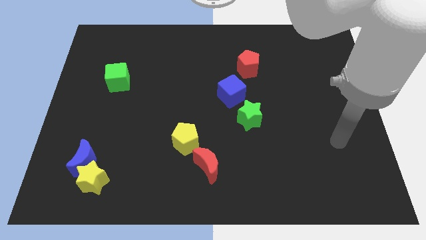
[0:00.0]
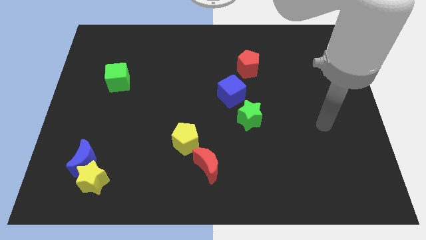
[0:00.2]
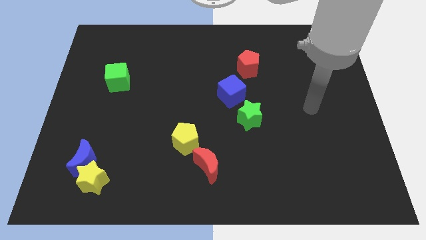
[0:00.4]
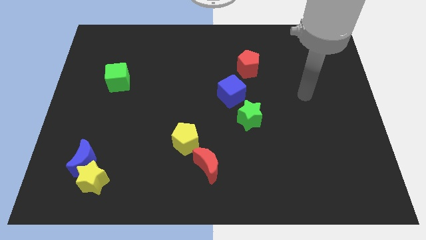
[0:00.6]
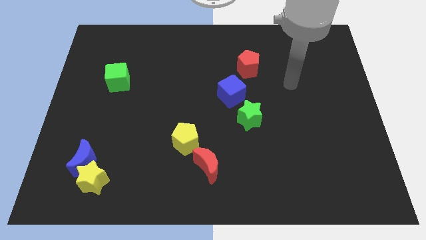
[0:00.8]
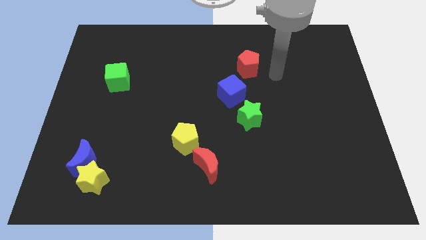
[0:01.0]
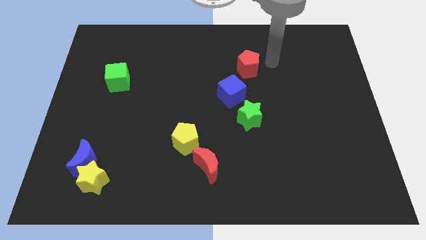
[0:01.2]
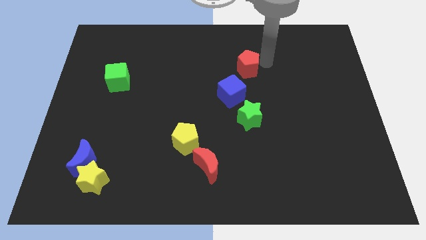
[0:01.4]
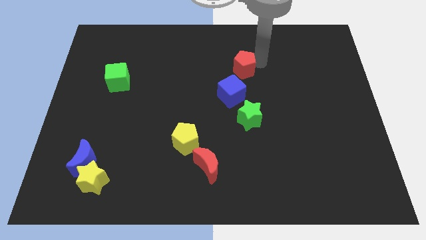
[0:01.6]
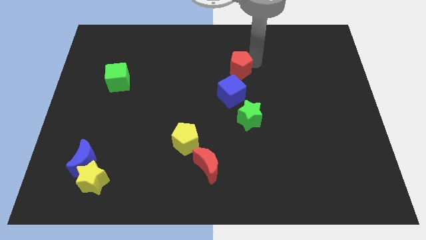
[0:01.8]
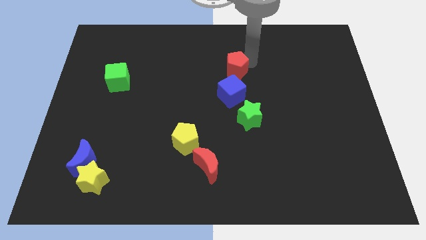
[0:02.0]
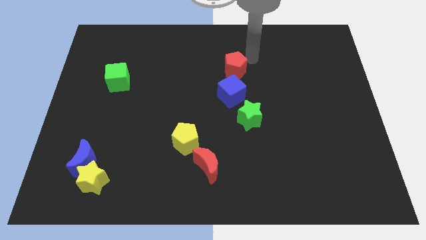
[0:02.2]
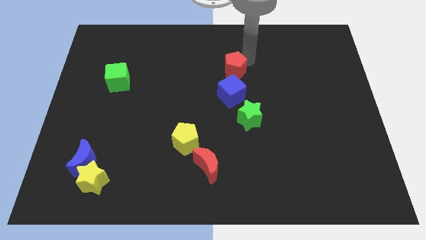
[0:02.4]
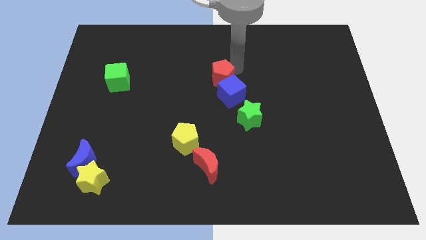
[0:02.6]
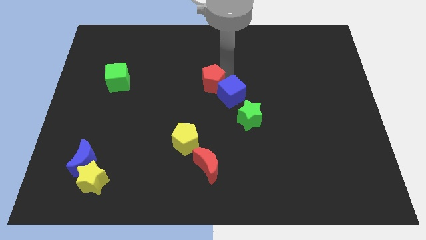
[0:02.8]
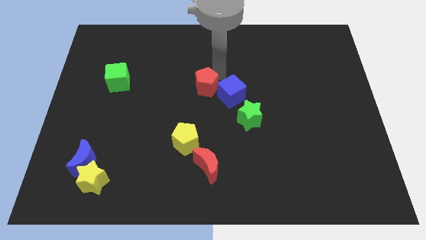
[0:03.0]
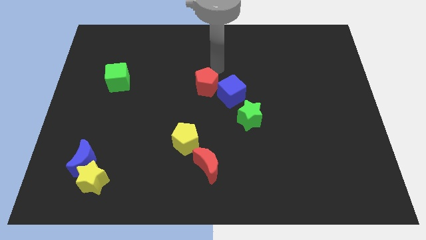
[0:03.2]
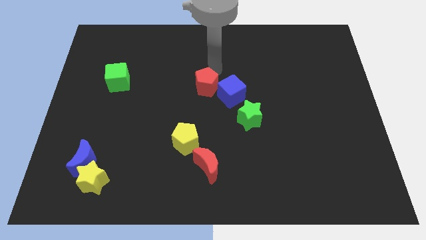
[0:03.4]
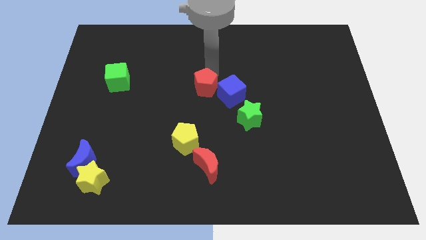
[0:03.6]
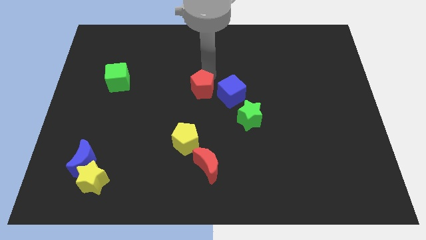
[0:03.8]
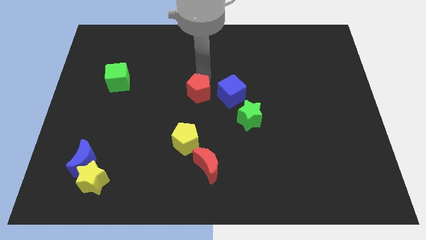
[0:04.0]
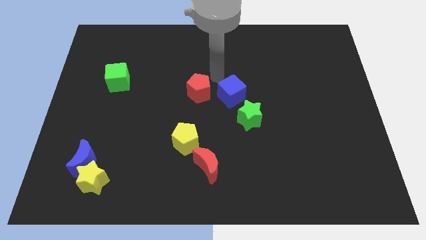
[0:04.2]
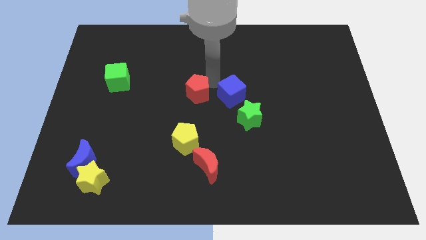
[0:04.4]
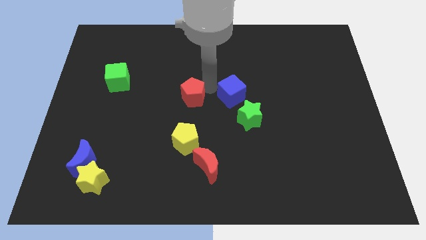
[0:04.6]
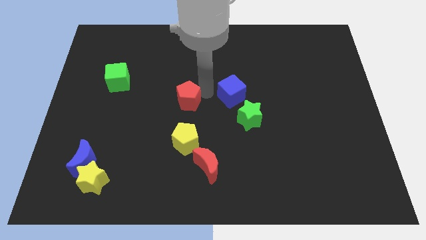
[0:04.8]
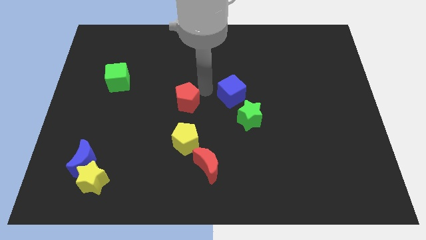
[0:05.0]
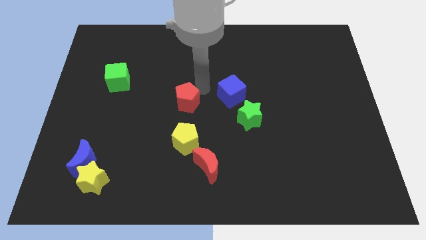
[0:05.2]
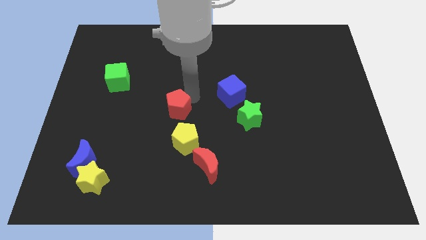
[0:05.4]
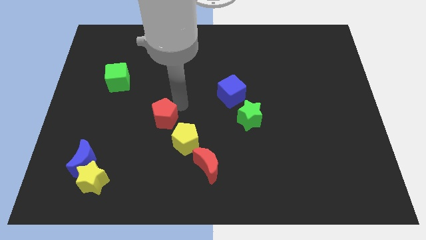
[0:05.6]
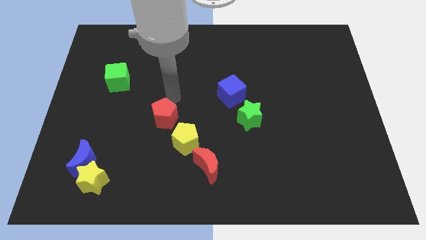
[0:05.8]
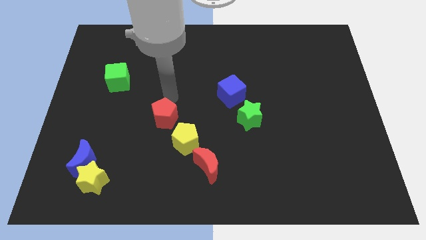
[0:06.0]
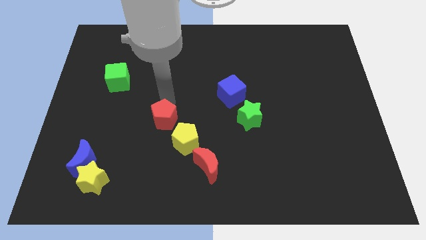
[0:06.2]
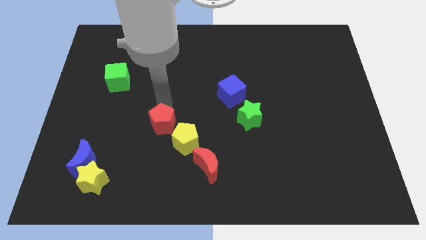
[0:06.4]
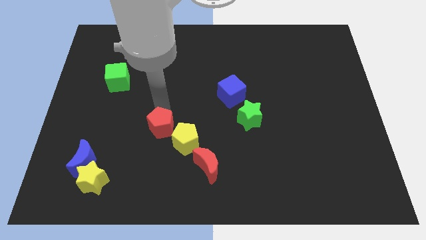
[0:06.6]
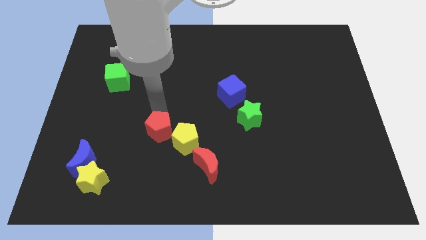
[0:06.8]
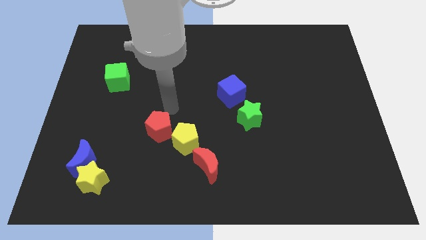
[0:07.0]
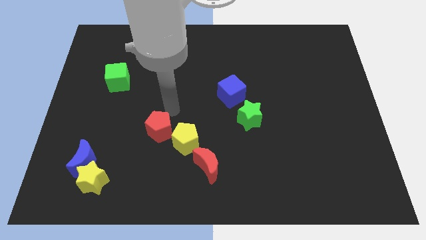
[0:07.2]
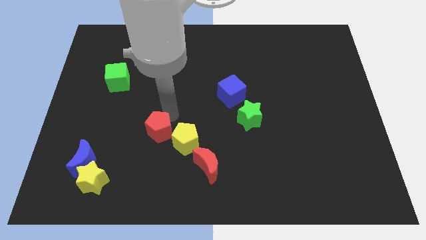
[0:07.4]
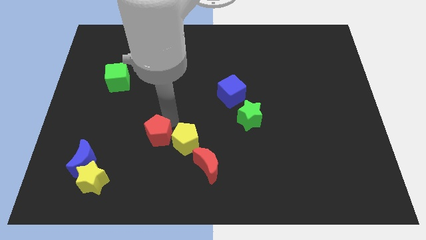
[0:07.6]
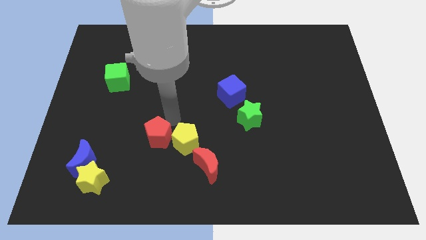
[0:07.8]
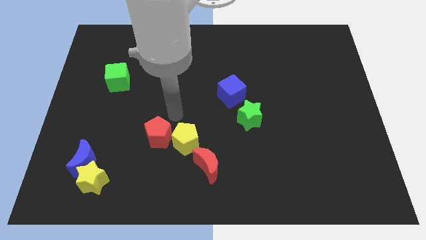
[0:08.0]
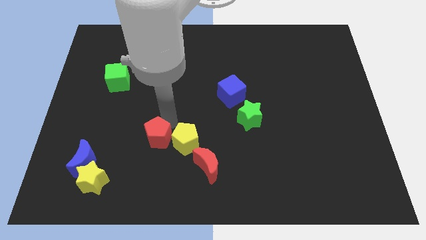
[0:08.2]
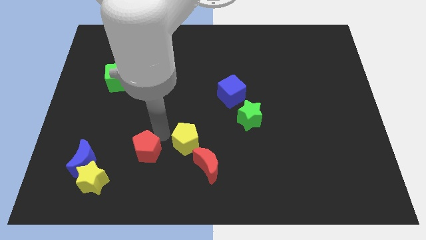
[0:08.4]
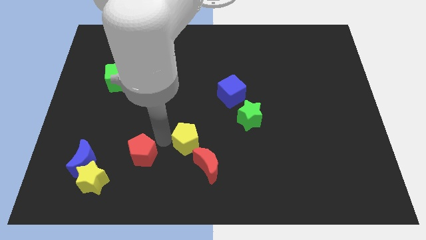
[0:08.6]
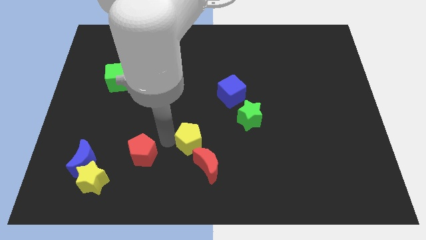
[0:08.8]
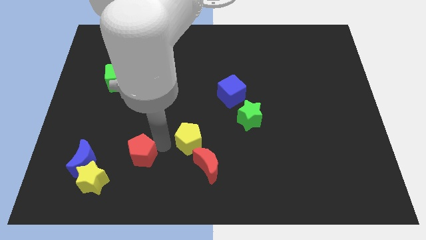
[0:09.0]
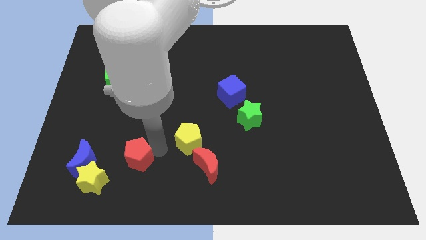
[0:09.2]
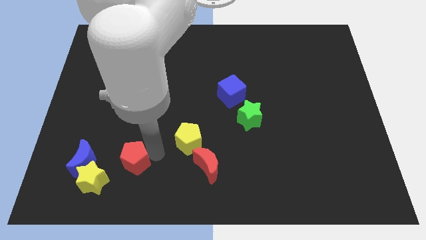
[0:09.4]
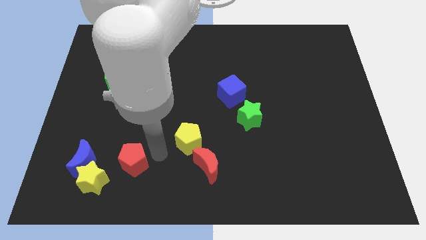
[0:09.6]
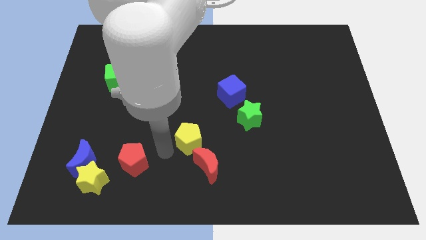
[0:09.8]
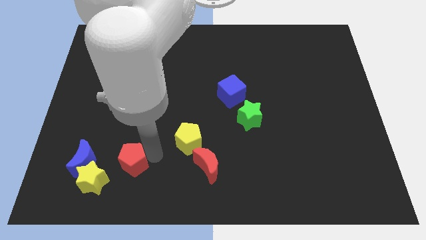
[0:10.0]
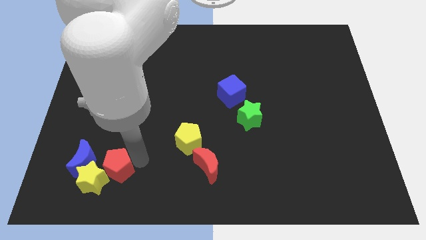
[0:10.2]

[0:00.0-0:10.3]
push the red pentagon close to the yellow star

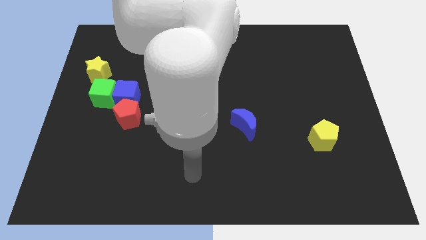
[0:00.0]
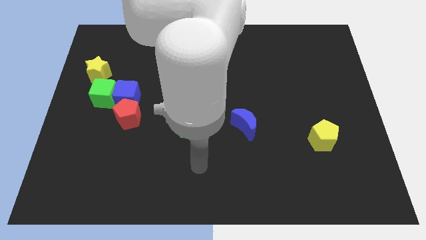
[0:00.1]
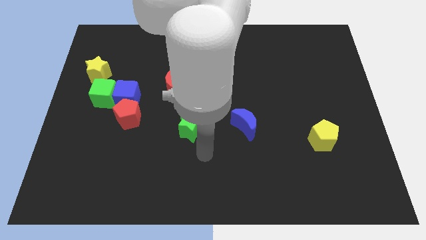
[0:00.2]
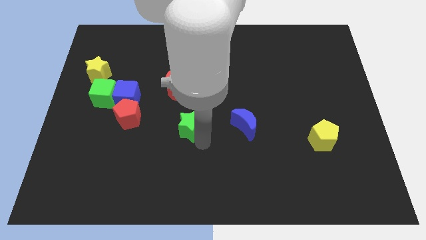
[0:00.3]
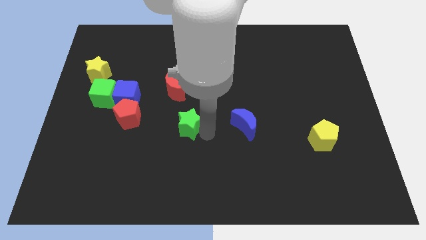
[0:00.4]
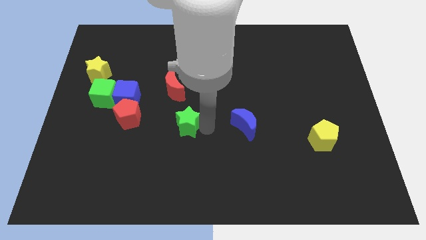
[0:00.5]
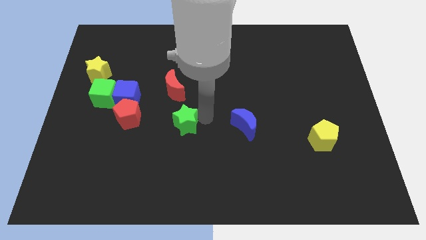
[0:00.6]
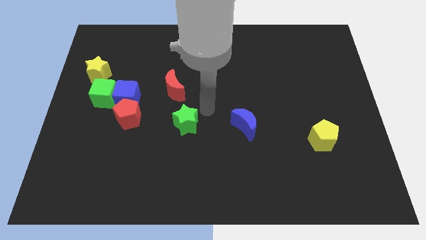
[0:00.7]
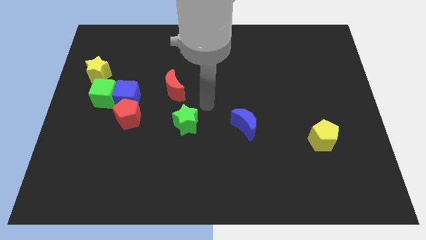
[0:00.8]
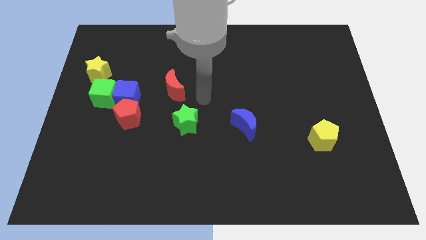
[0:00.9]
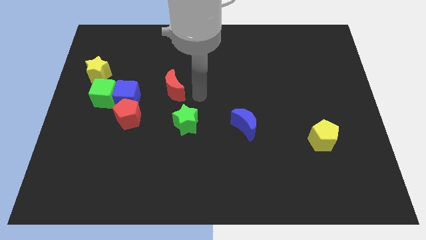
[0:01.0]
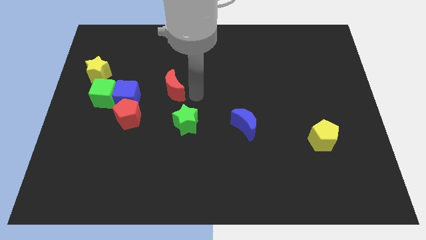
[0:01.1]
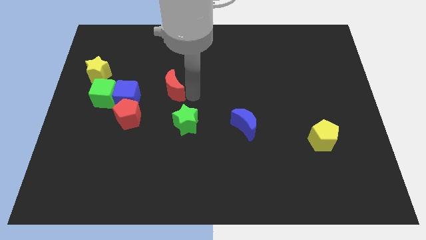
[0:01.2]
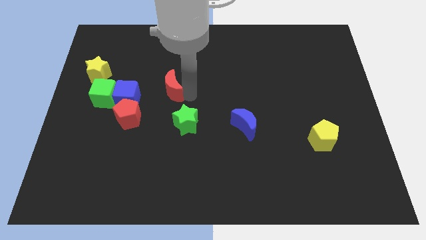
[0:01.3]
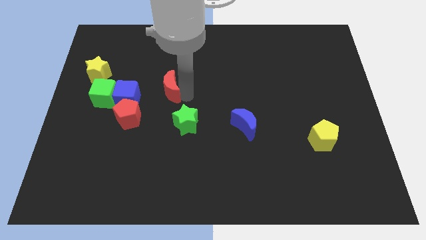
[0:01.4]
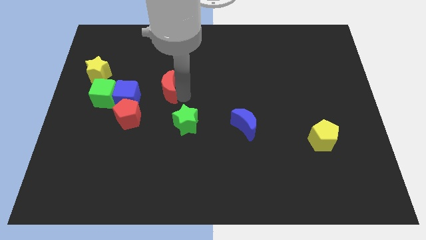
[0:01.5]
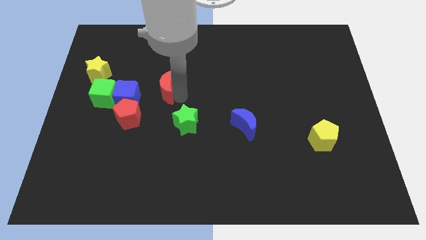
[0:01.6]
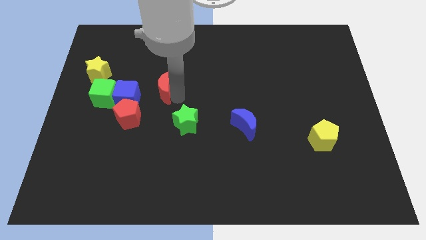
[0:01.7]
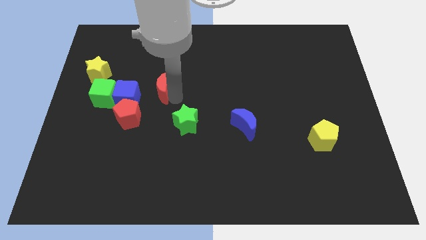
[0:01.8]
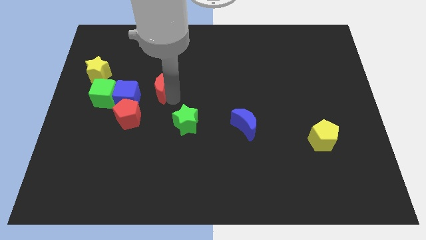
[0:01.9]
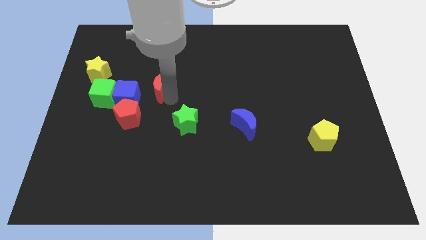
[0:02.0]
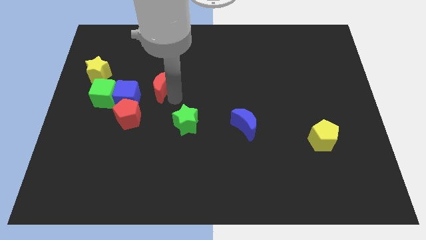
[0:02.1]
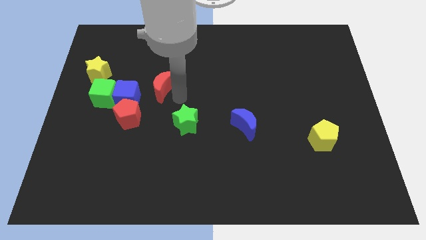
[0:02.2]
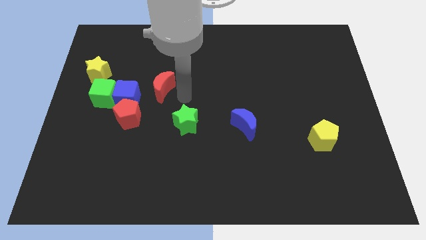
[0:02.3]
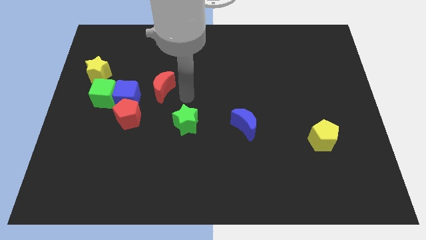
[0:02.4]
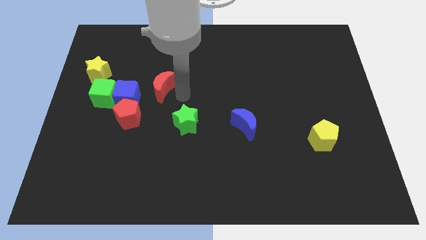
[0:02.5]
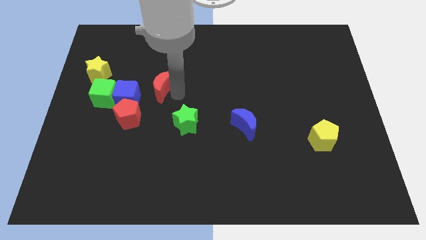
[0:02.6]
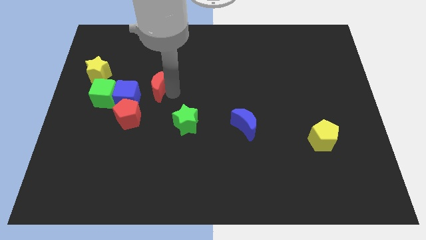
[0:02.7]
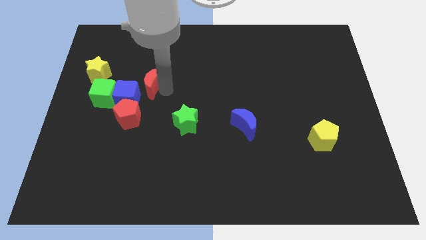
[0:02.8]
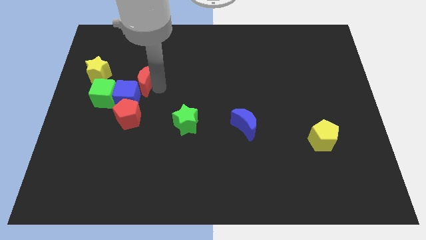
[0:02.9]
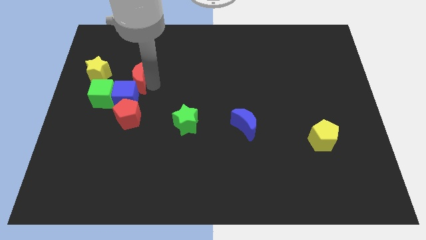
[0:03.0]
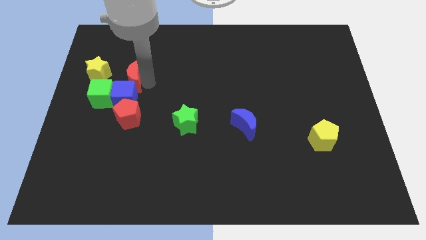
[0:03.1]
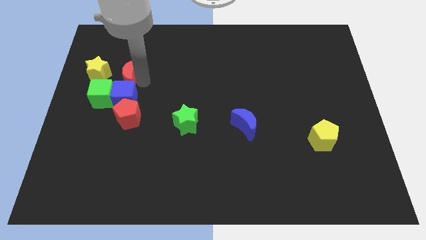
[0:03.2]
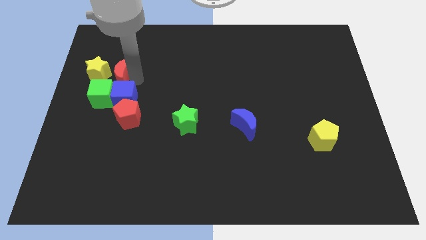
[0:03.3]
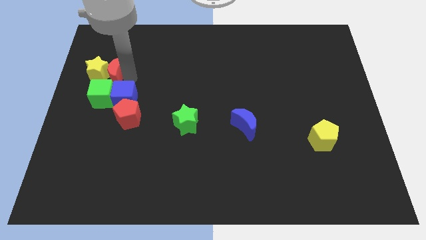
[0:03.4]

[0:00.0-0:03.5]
push the red moon next to the yellow star
